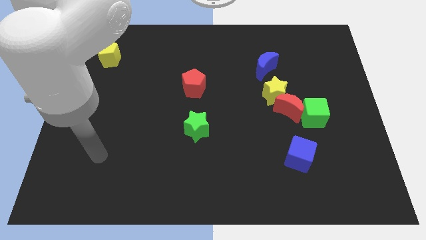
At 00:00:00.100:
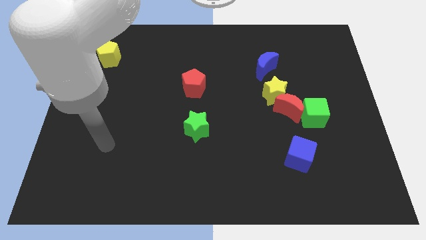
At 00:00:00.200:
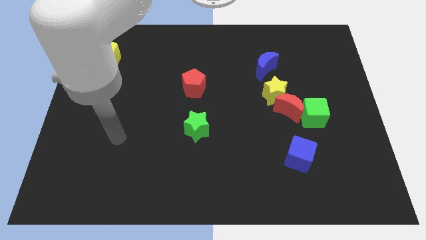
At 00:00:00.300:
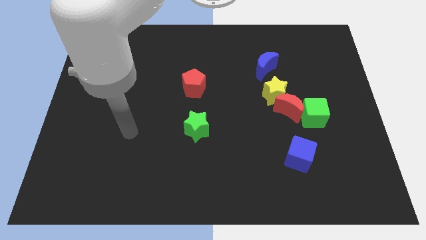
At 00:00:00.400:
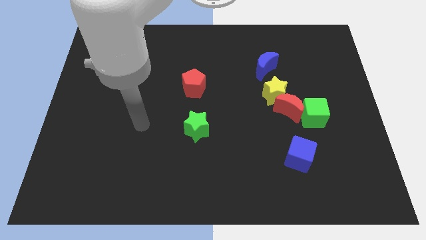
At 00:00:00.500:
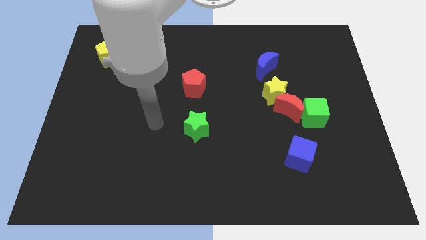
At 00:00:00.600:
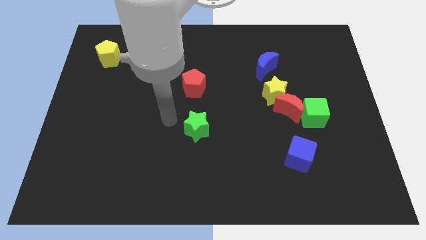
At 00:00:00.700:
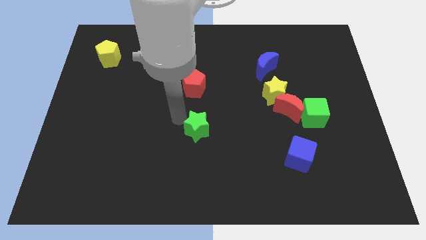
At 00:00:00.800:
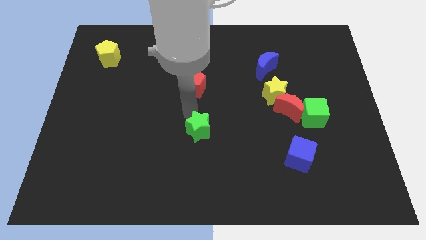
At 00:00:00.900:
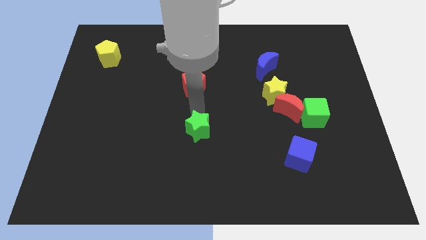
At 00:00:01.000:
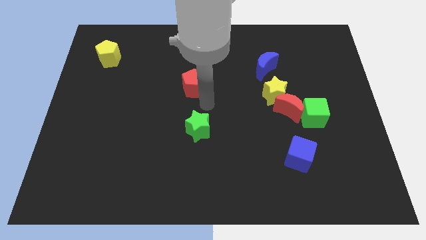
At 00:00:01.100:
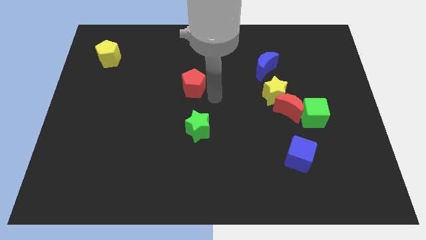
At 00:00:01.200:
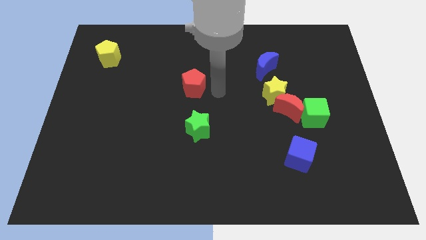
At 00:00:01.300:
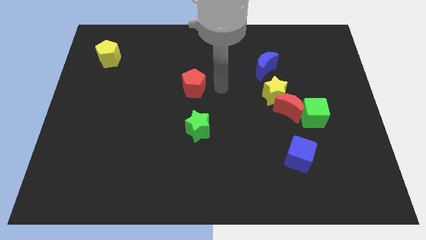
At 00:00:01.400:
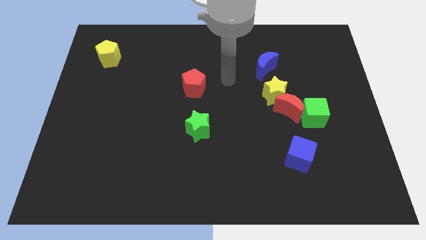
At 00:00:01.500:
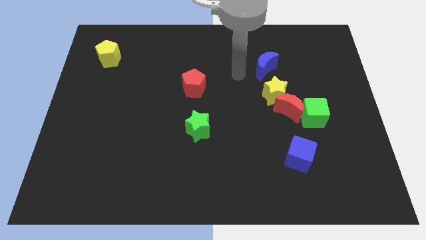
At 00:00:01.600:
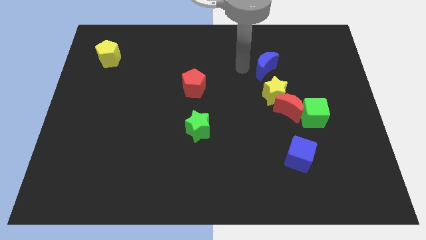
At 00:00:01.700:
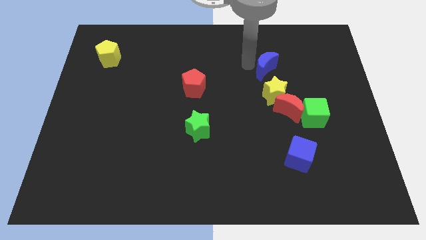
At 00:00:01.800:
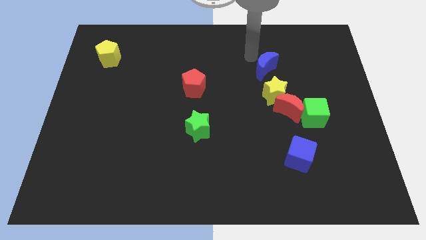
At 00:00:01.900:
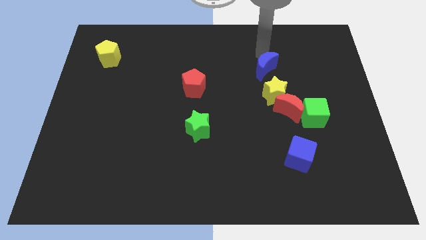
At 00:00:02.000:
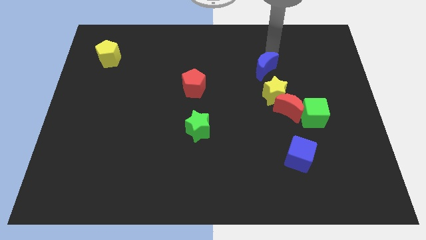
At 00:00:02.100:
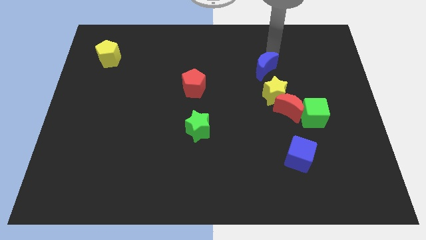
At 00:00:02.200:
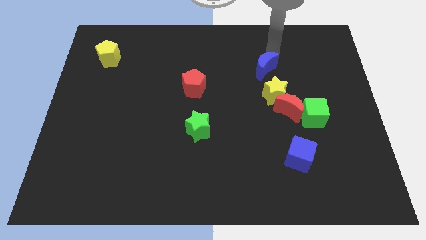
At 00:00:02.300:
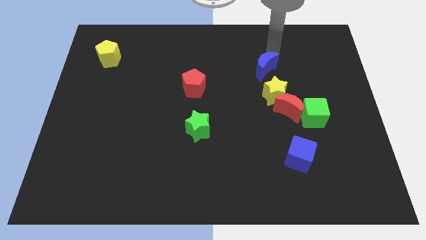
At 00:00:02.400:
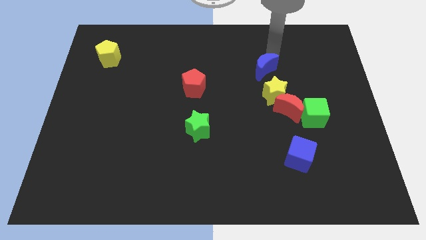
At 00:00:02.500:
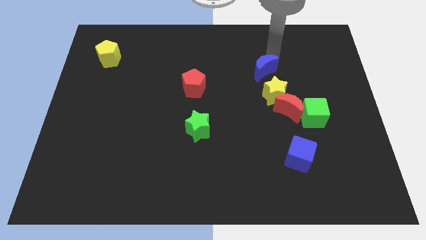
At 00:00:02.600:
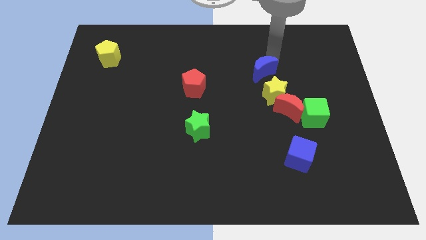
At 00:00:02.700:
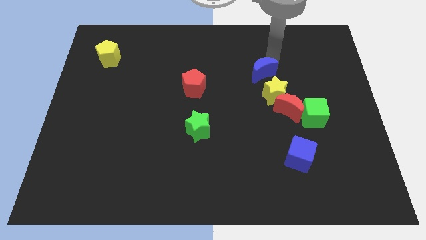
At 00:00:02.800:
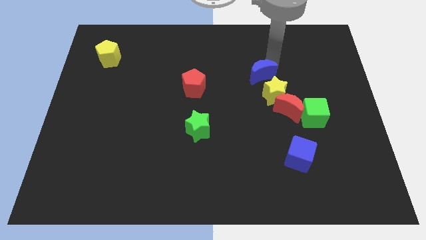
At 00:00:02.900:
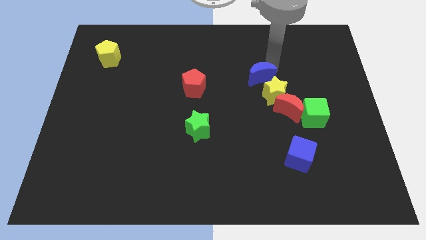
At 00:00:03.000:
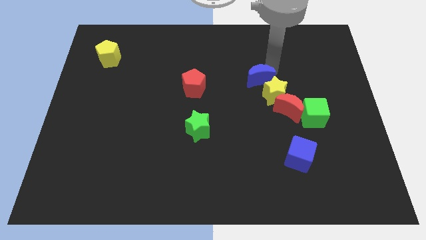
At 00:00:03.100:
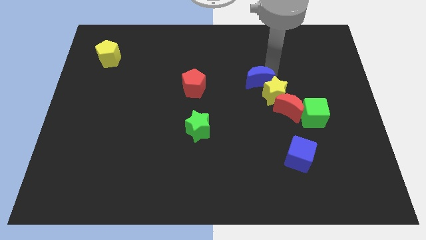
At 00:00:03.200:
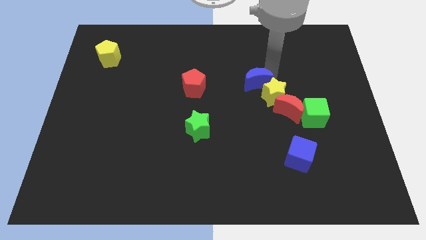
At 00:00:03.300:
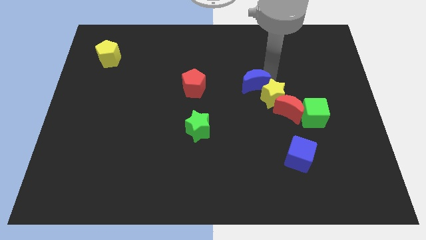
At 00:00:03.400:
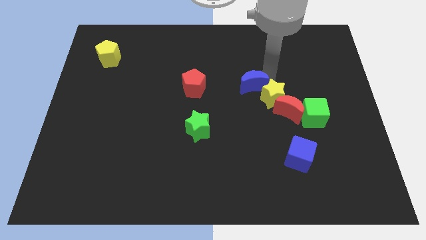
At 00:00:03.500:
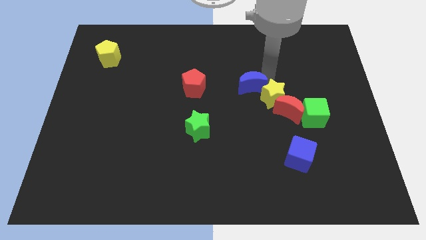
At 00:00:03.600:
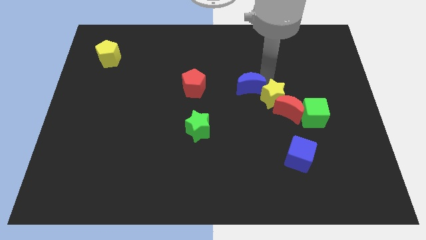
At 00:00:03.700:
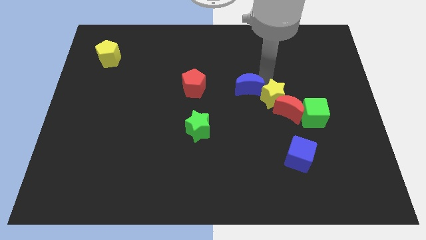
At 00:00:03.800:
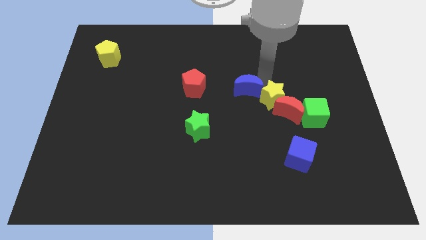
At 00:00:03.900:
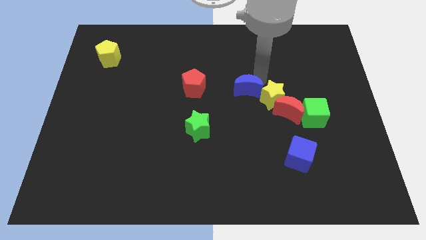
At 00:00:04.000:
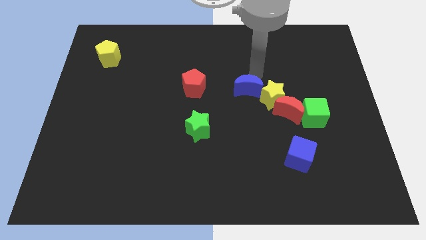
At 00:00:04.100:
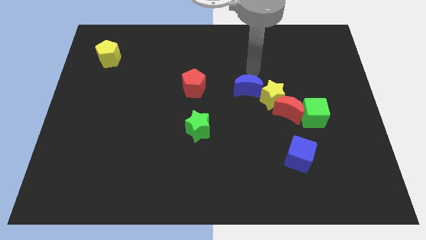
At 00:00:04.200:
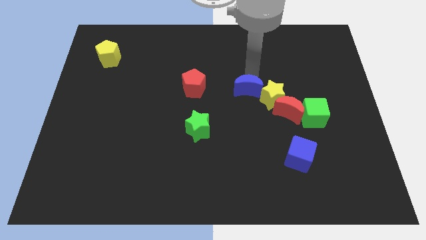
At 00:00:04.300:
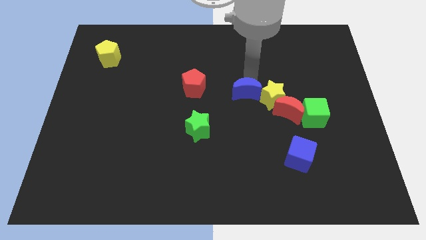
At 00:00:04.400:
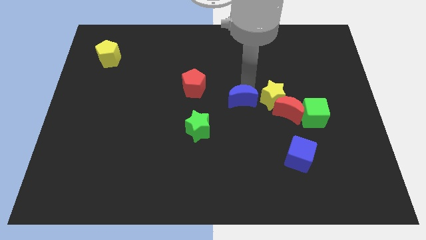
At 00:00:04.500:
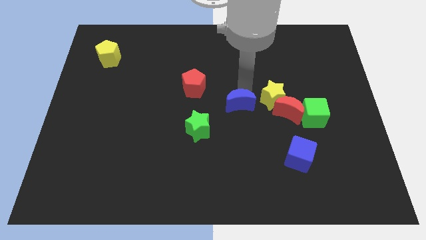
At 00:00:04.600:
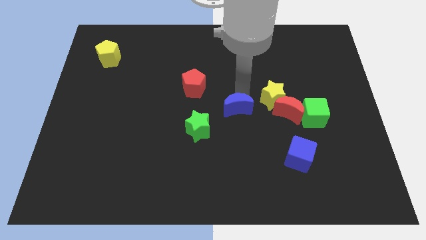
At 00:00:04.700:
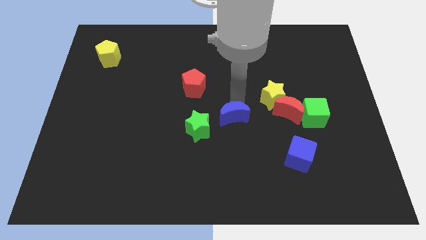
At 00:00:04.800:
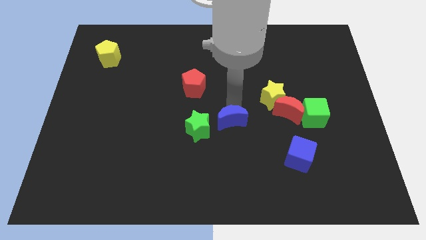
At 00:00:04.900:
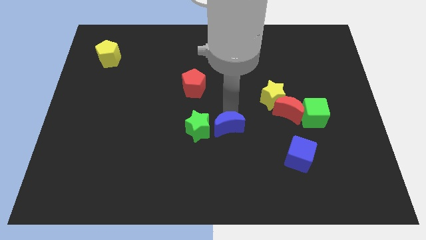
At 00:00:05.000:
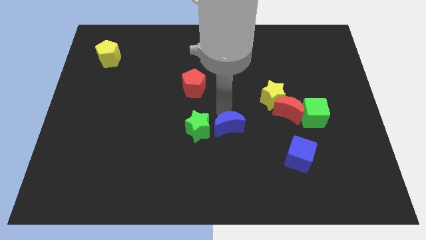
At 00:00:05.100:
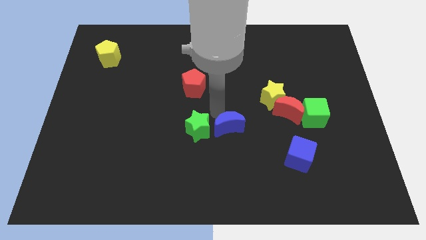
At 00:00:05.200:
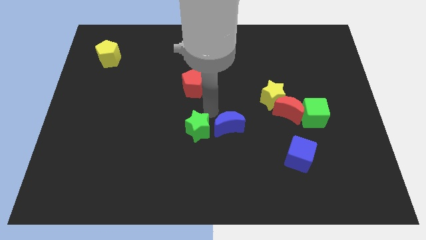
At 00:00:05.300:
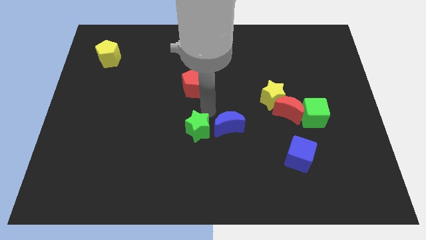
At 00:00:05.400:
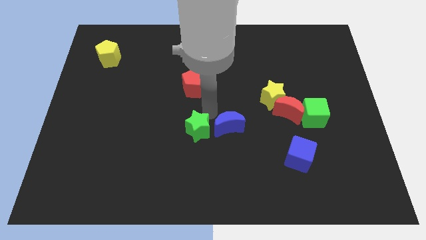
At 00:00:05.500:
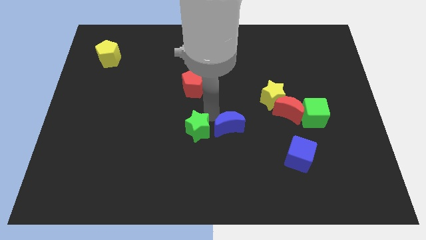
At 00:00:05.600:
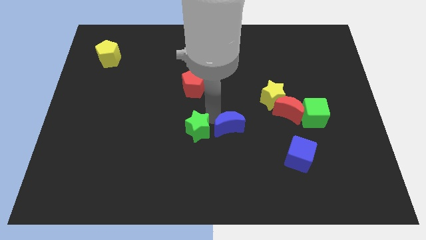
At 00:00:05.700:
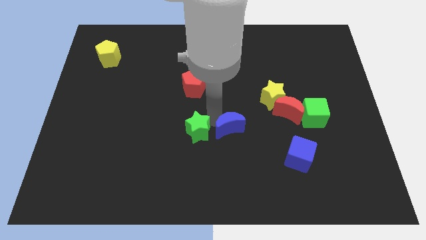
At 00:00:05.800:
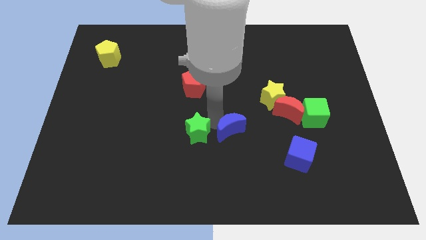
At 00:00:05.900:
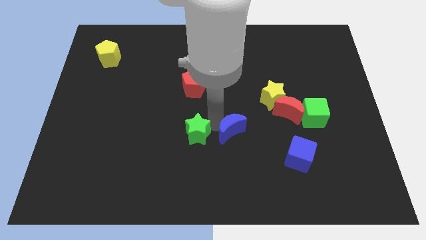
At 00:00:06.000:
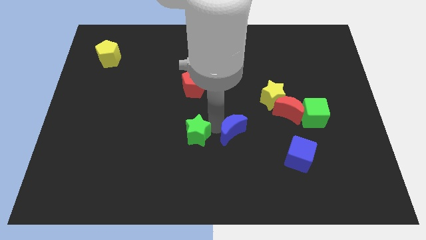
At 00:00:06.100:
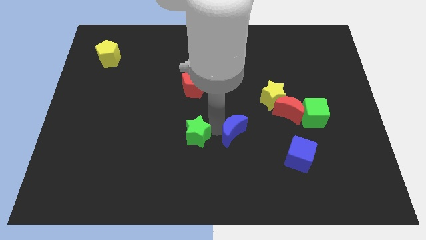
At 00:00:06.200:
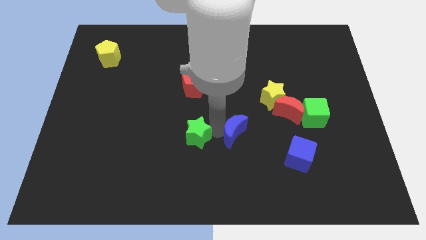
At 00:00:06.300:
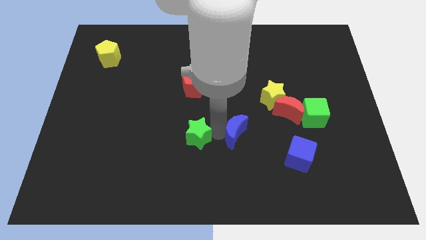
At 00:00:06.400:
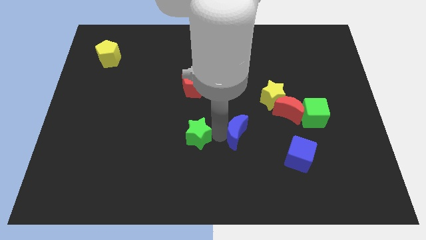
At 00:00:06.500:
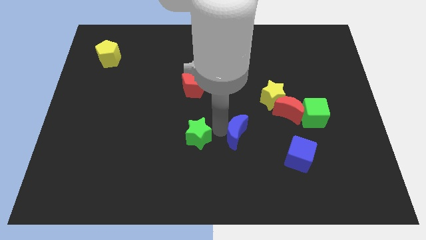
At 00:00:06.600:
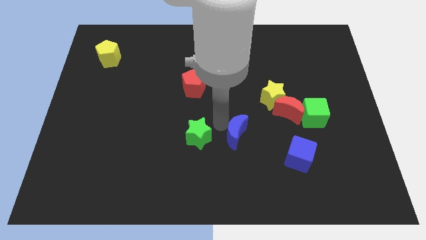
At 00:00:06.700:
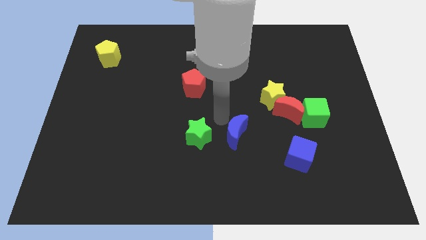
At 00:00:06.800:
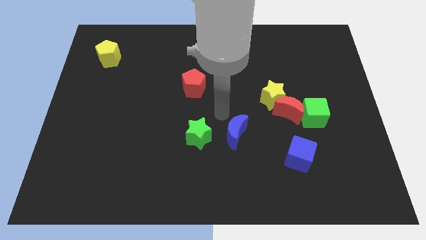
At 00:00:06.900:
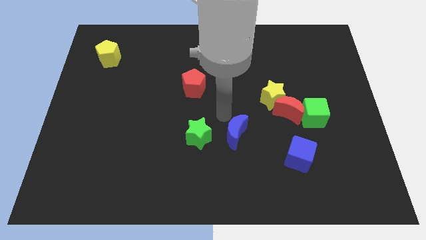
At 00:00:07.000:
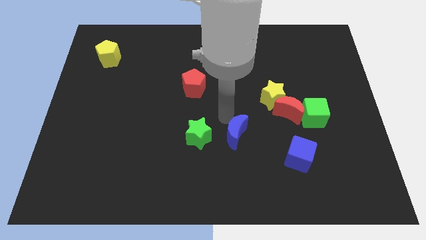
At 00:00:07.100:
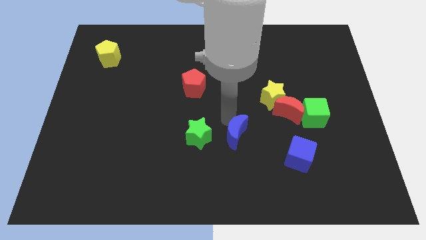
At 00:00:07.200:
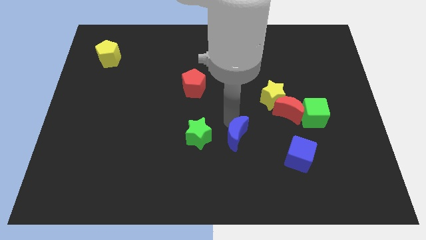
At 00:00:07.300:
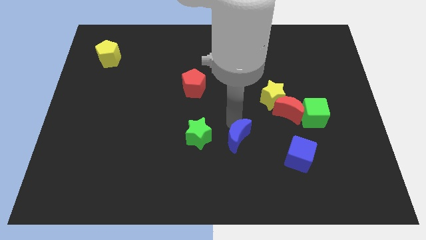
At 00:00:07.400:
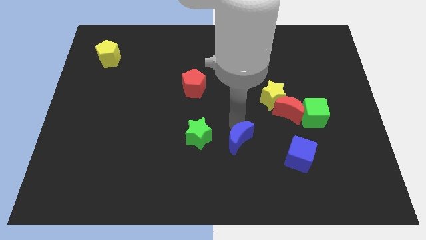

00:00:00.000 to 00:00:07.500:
push the blue moon just left of the blue cube

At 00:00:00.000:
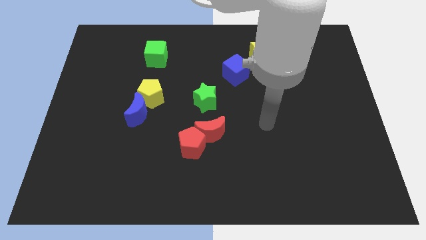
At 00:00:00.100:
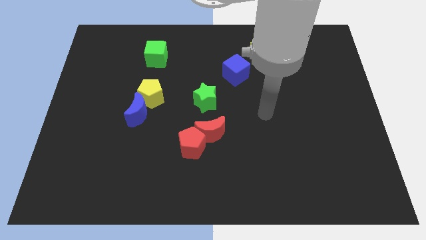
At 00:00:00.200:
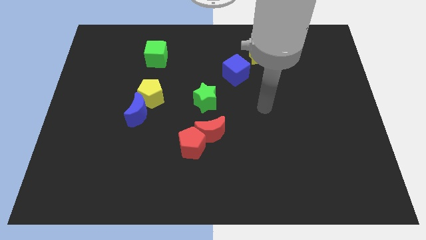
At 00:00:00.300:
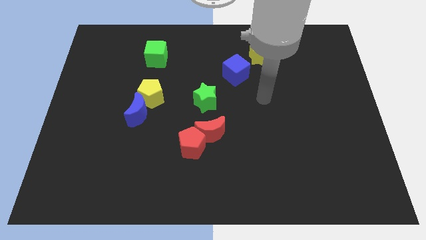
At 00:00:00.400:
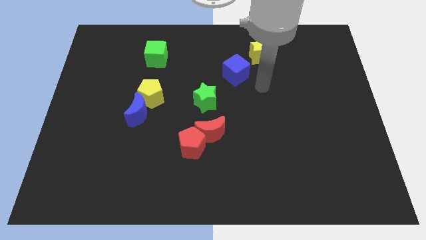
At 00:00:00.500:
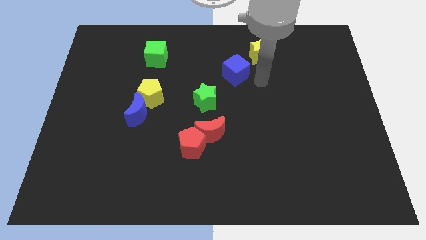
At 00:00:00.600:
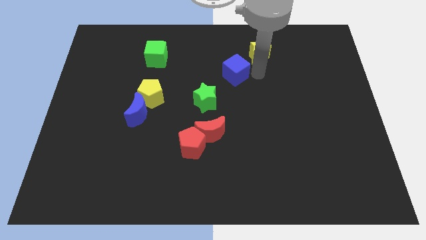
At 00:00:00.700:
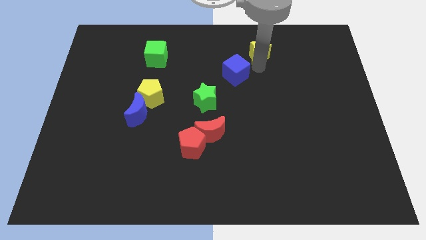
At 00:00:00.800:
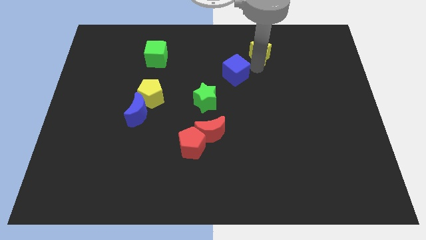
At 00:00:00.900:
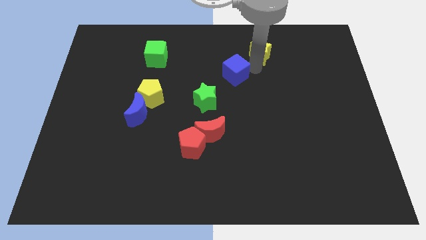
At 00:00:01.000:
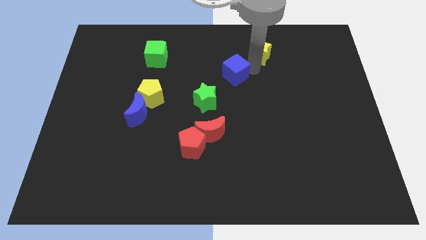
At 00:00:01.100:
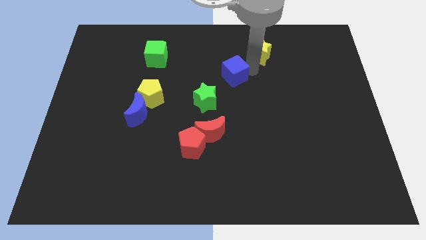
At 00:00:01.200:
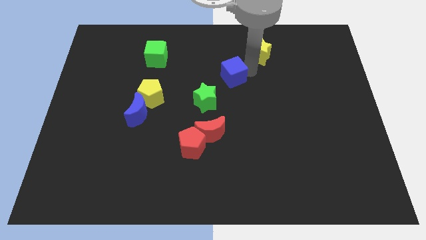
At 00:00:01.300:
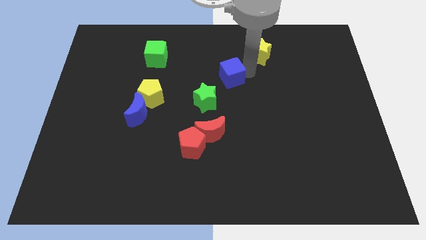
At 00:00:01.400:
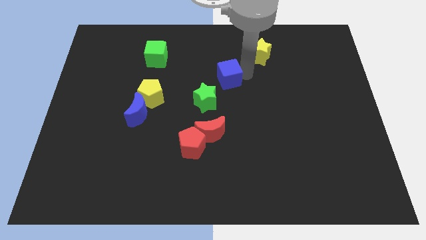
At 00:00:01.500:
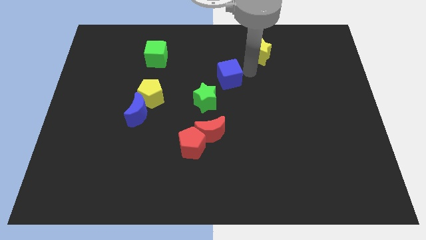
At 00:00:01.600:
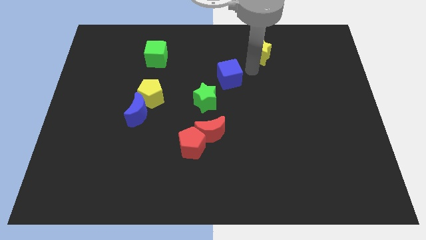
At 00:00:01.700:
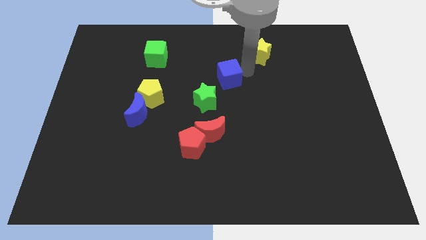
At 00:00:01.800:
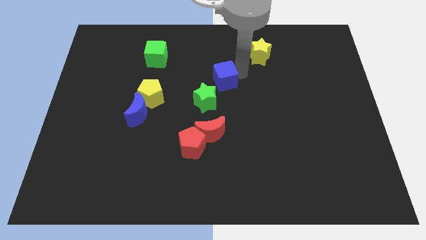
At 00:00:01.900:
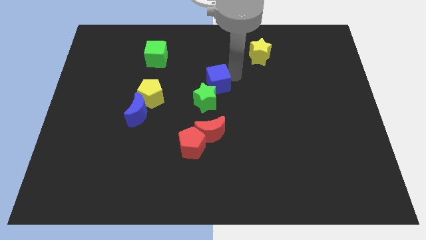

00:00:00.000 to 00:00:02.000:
push the blue cube above the red moon
